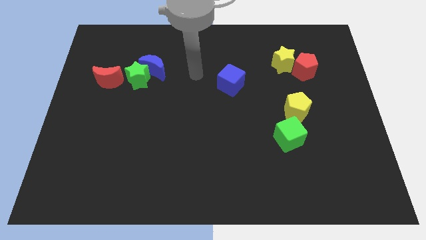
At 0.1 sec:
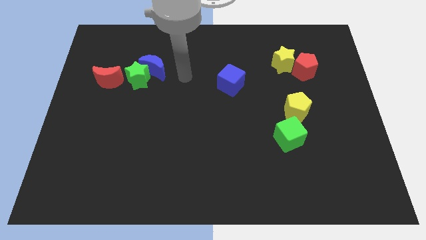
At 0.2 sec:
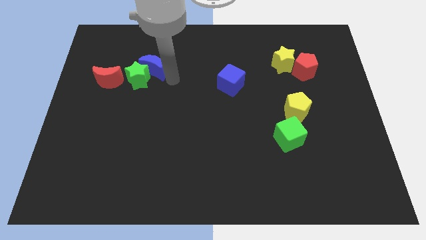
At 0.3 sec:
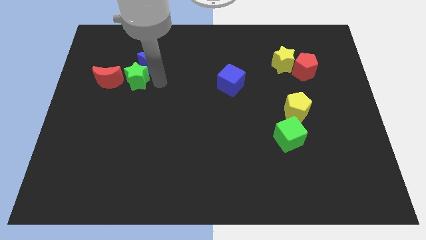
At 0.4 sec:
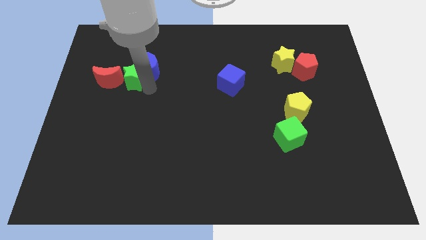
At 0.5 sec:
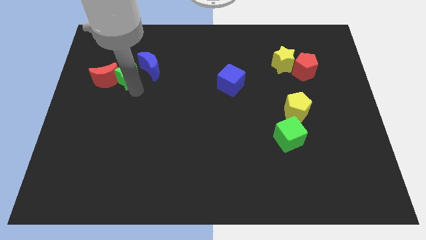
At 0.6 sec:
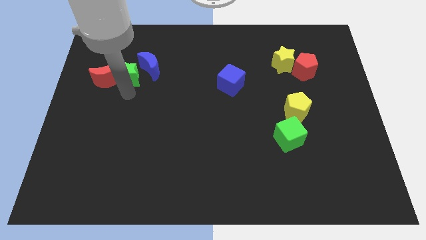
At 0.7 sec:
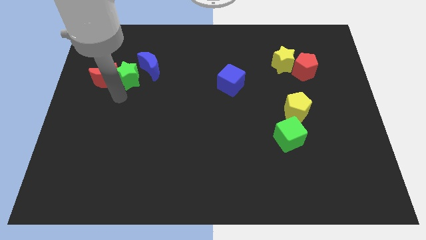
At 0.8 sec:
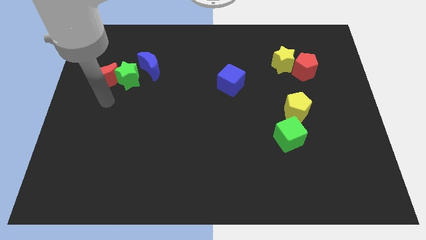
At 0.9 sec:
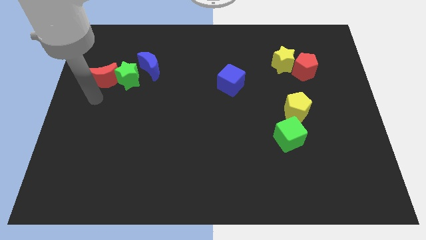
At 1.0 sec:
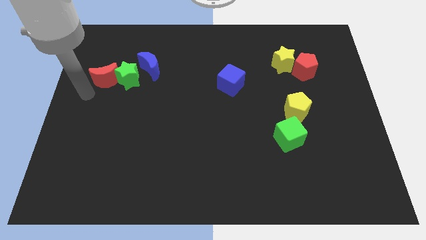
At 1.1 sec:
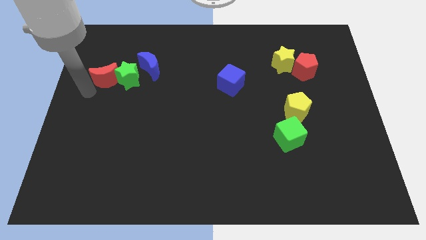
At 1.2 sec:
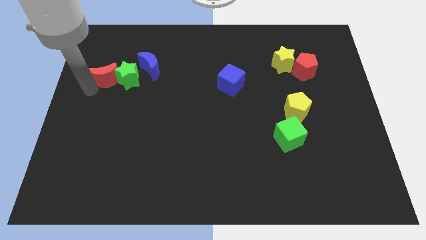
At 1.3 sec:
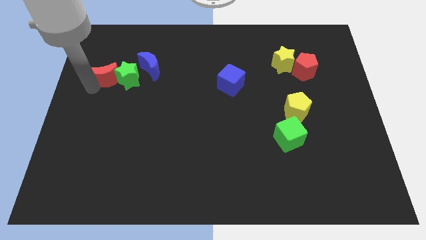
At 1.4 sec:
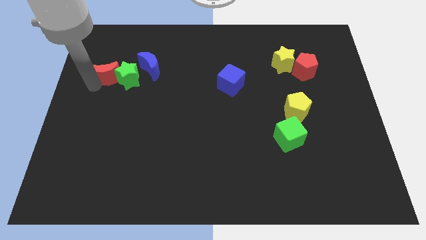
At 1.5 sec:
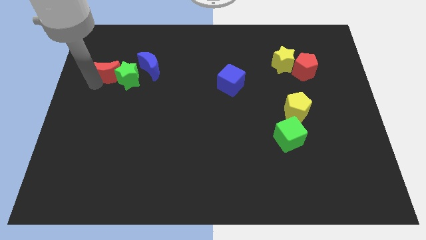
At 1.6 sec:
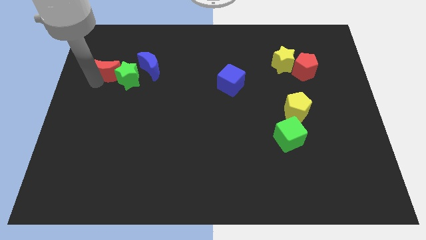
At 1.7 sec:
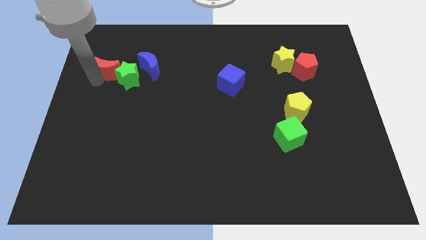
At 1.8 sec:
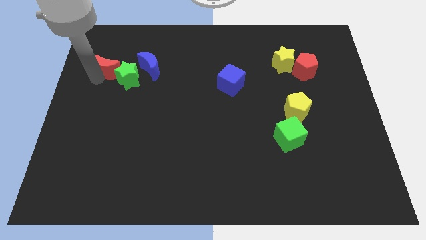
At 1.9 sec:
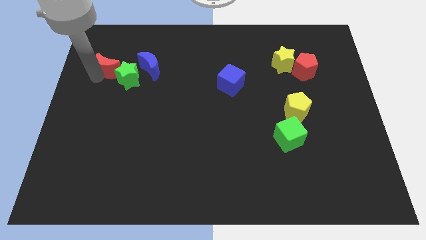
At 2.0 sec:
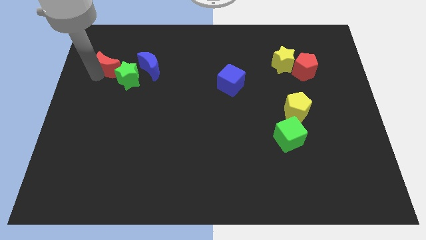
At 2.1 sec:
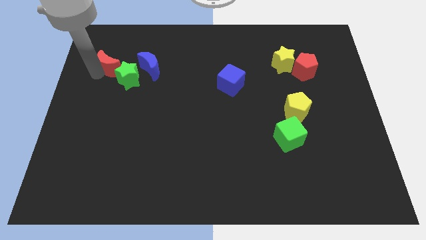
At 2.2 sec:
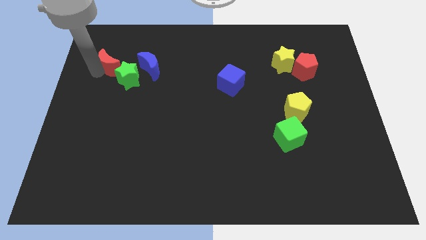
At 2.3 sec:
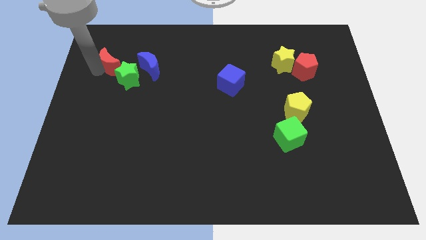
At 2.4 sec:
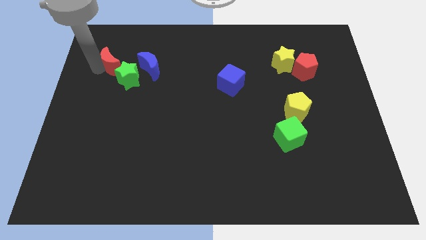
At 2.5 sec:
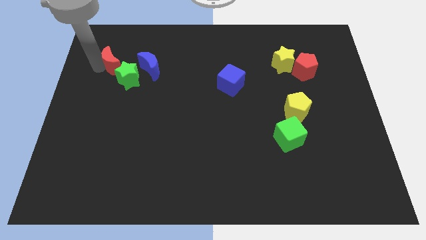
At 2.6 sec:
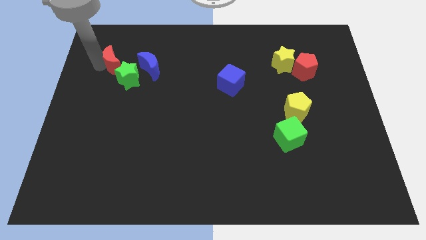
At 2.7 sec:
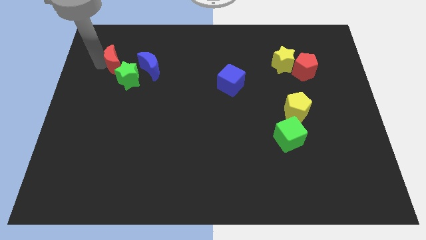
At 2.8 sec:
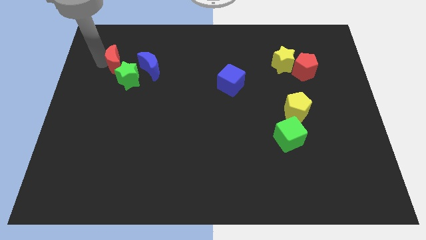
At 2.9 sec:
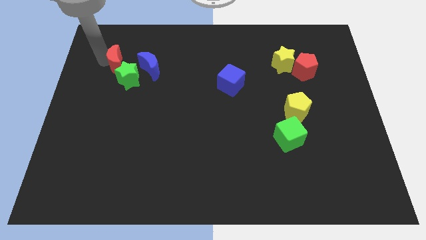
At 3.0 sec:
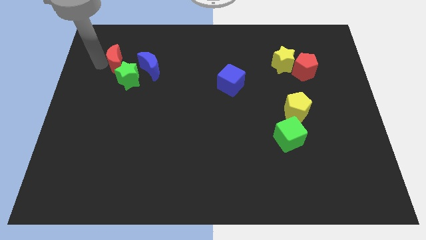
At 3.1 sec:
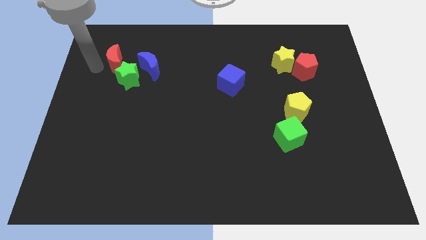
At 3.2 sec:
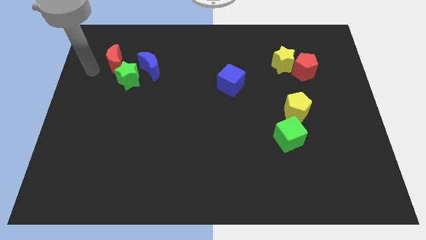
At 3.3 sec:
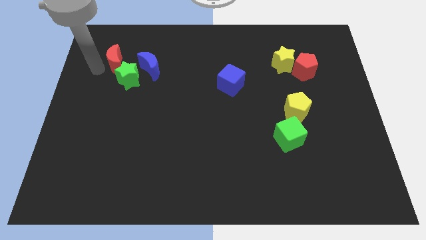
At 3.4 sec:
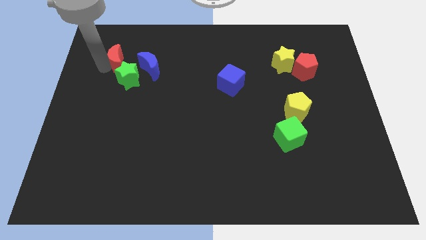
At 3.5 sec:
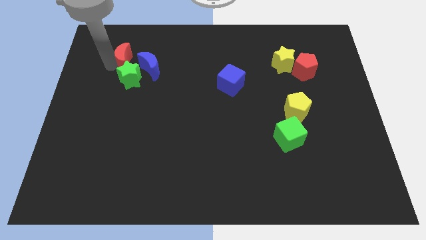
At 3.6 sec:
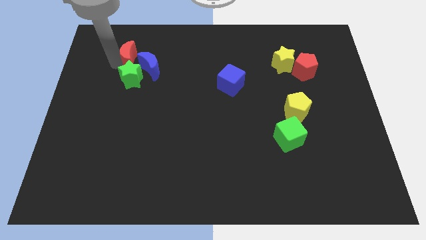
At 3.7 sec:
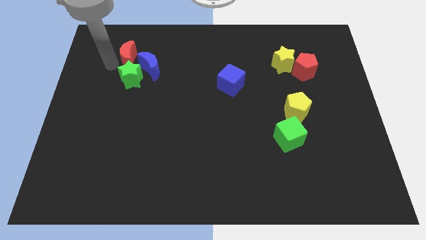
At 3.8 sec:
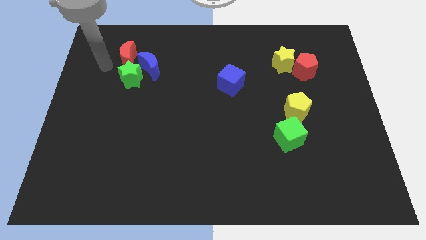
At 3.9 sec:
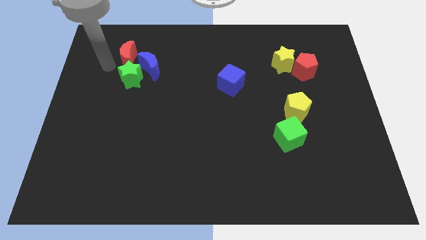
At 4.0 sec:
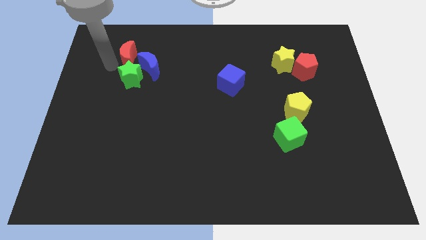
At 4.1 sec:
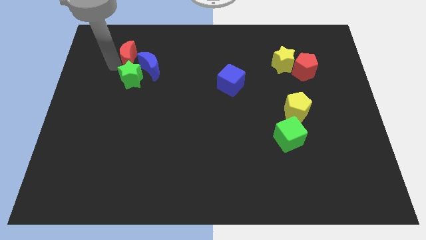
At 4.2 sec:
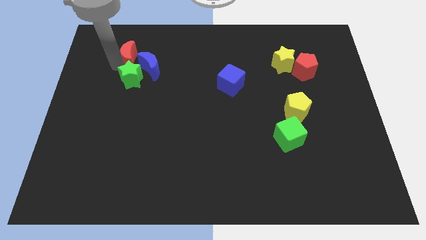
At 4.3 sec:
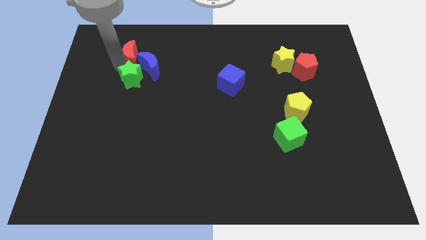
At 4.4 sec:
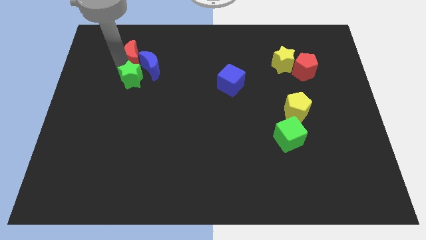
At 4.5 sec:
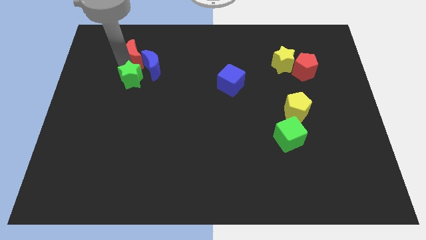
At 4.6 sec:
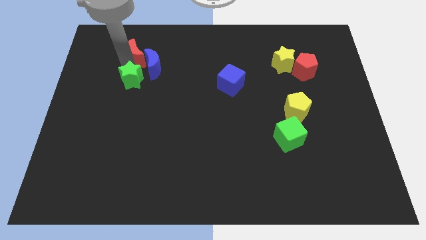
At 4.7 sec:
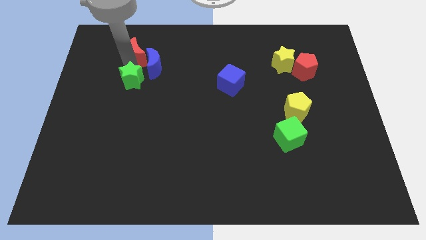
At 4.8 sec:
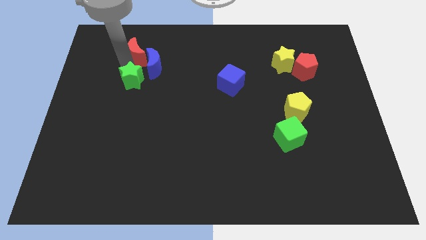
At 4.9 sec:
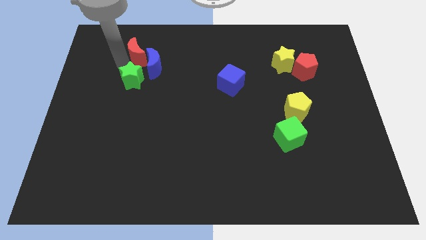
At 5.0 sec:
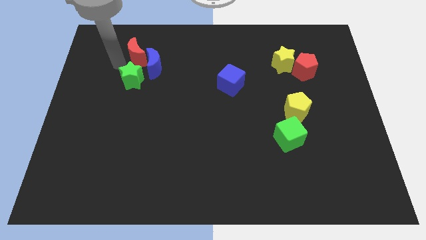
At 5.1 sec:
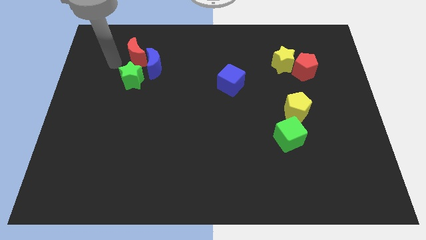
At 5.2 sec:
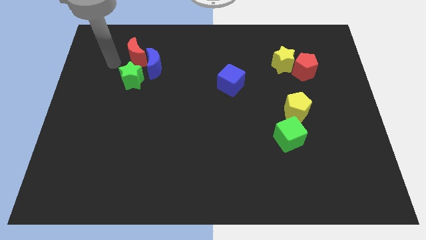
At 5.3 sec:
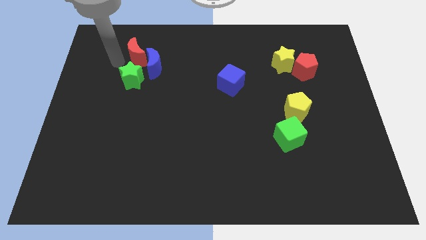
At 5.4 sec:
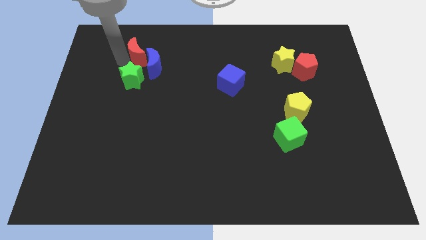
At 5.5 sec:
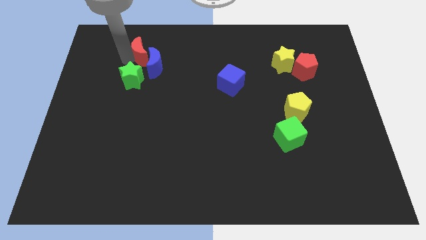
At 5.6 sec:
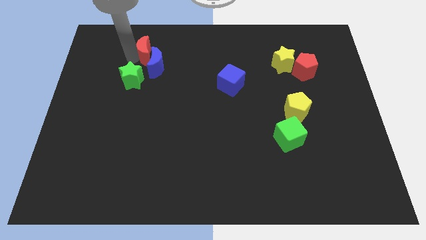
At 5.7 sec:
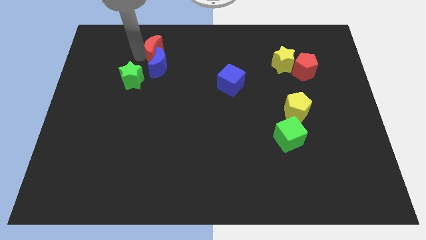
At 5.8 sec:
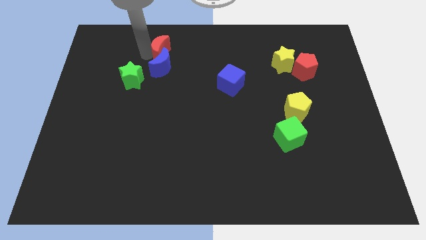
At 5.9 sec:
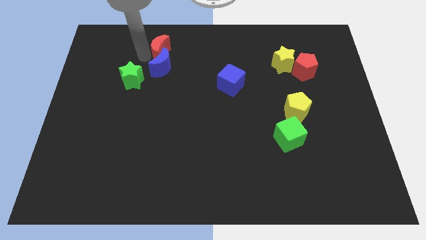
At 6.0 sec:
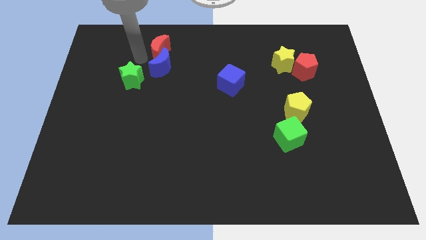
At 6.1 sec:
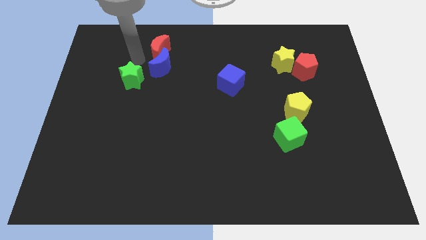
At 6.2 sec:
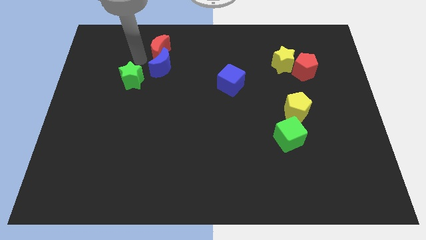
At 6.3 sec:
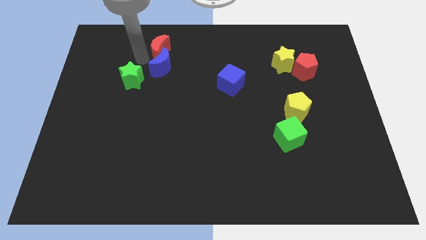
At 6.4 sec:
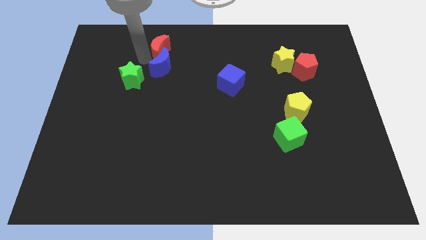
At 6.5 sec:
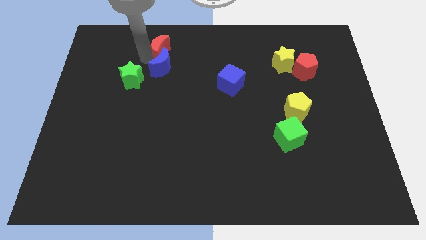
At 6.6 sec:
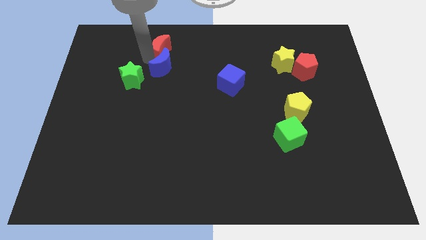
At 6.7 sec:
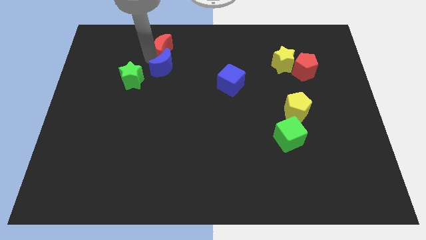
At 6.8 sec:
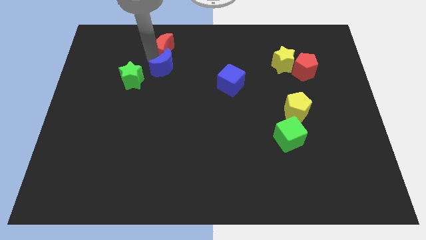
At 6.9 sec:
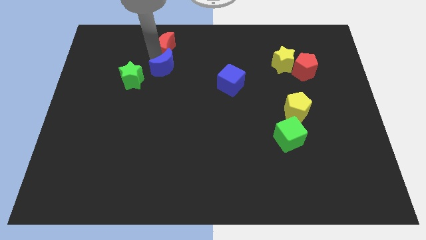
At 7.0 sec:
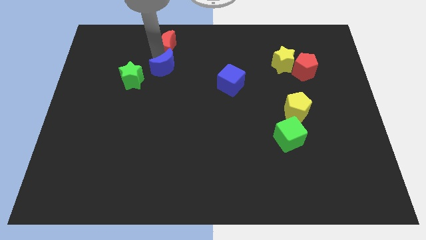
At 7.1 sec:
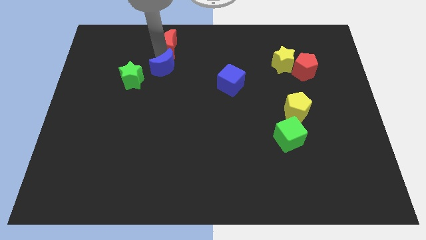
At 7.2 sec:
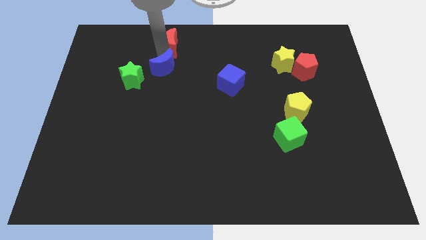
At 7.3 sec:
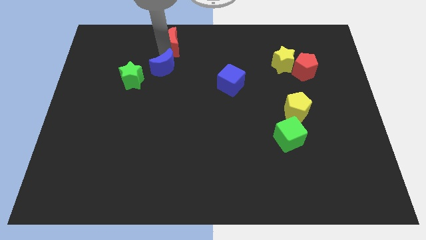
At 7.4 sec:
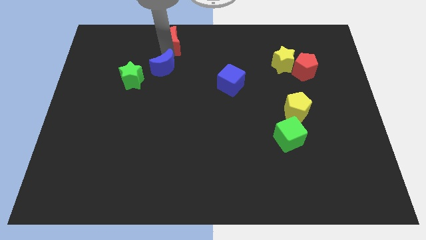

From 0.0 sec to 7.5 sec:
move the red moon to the top
